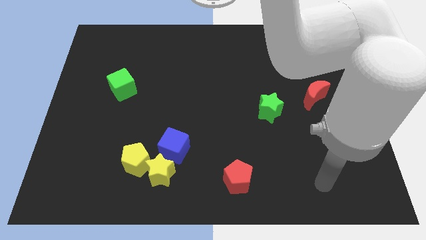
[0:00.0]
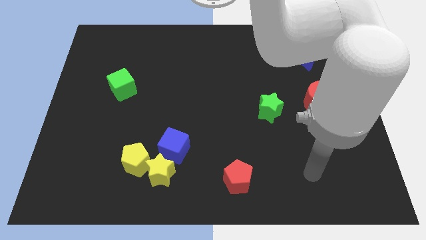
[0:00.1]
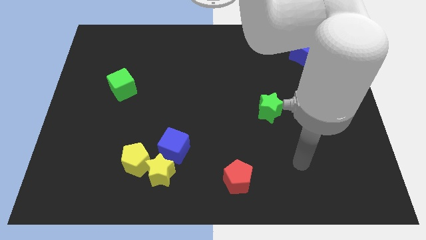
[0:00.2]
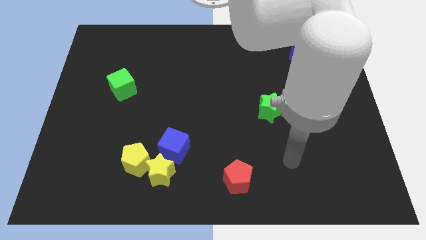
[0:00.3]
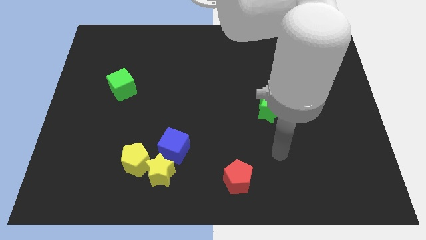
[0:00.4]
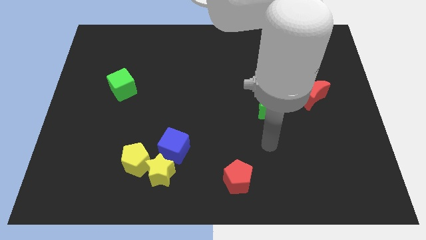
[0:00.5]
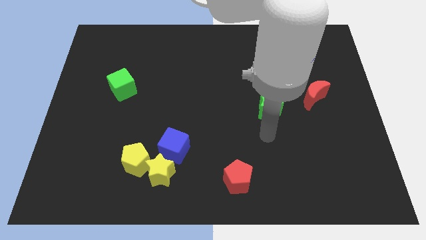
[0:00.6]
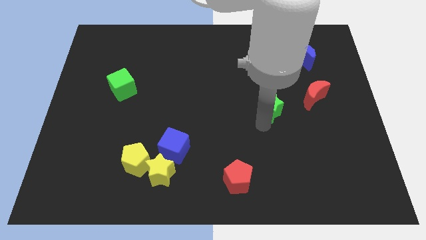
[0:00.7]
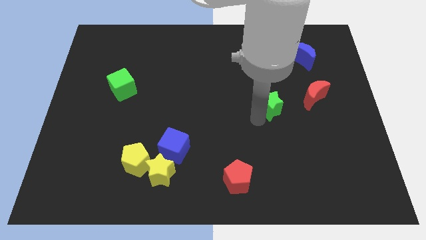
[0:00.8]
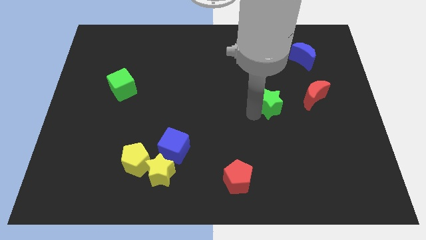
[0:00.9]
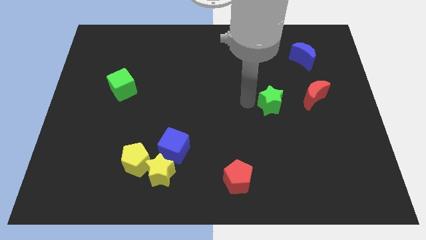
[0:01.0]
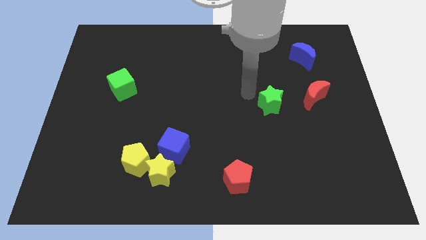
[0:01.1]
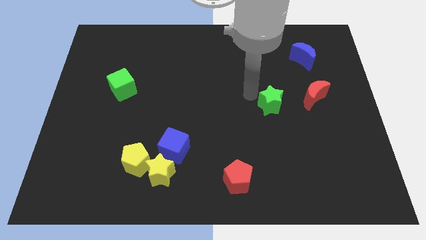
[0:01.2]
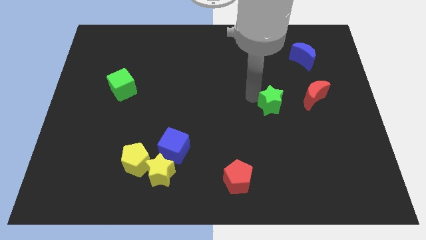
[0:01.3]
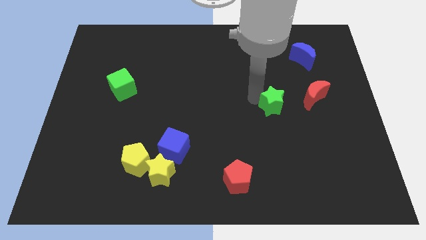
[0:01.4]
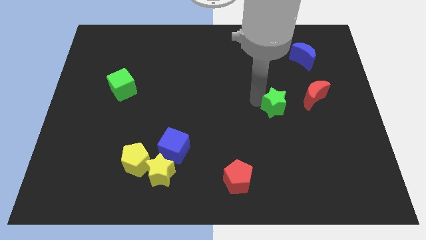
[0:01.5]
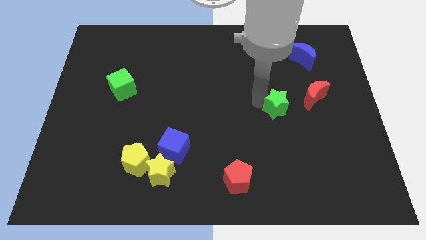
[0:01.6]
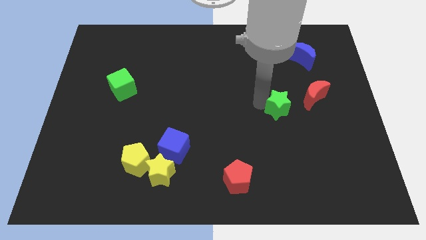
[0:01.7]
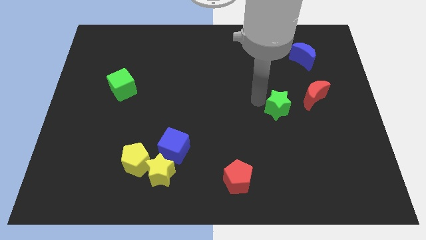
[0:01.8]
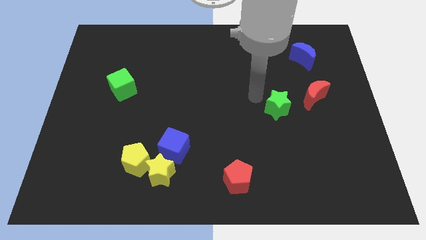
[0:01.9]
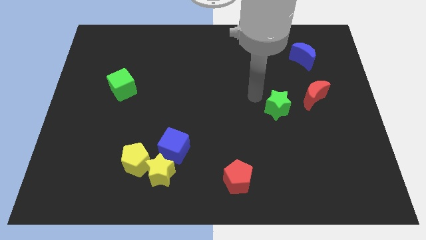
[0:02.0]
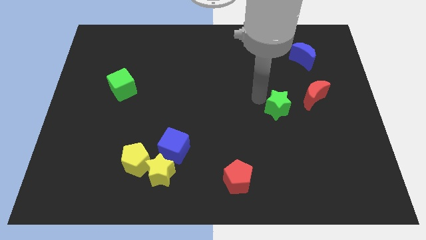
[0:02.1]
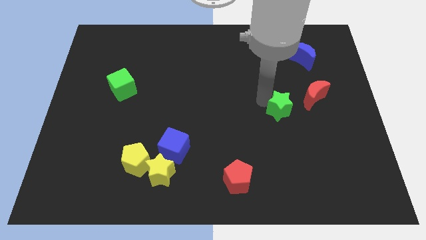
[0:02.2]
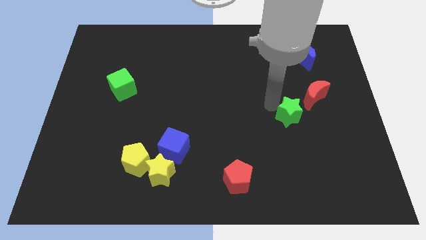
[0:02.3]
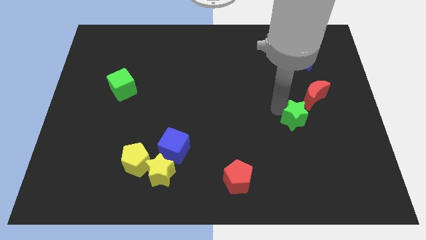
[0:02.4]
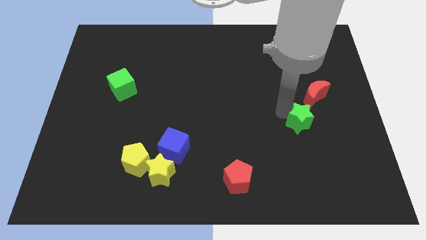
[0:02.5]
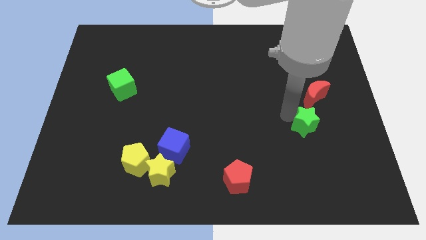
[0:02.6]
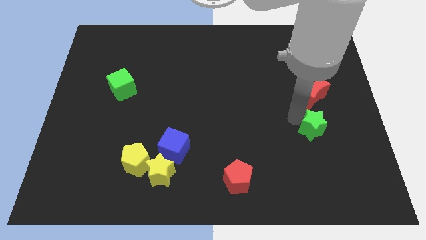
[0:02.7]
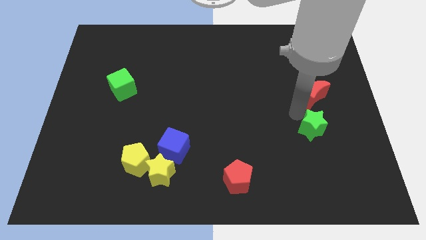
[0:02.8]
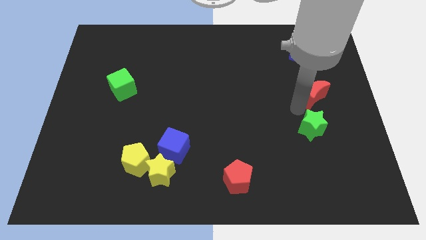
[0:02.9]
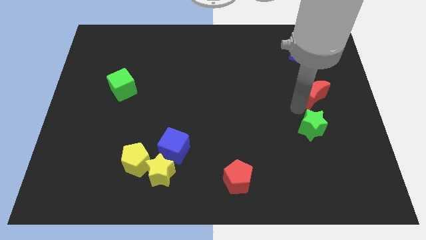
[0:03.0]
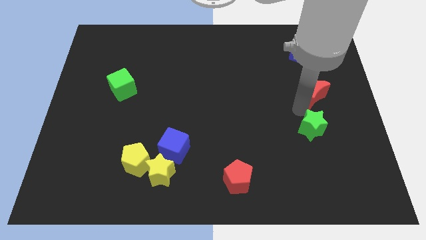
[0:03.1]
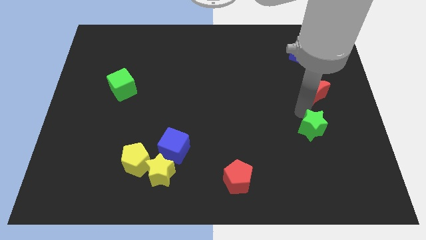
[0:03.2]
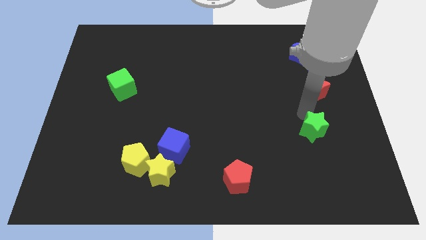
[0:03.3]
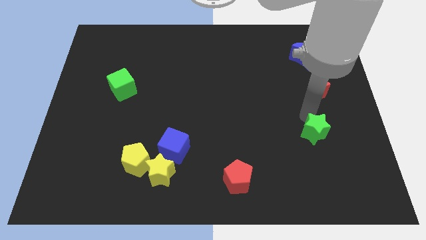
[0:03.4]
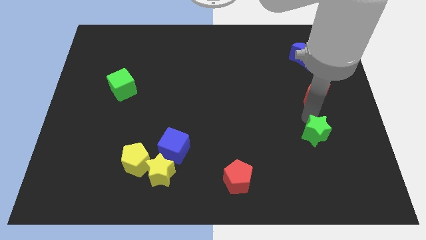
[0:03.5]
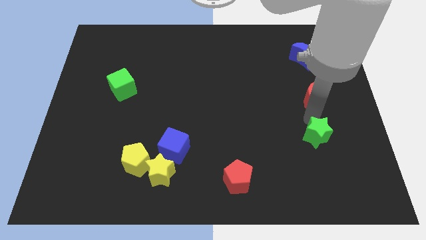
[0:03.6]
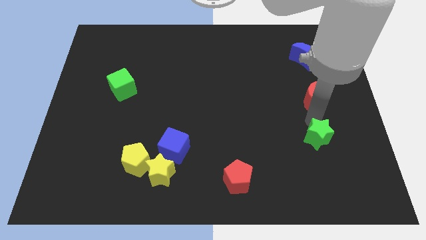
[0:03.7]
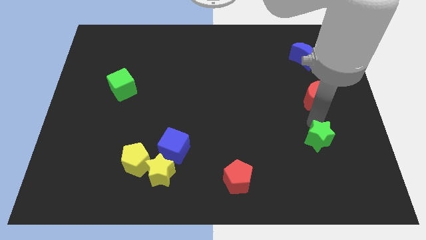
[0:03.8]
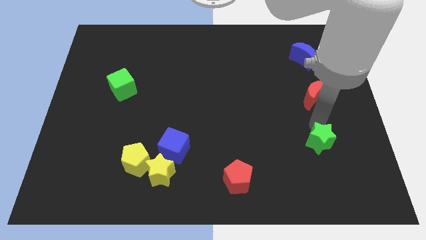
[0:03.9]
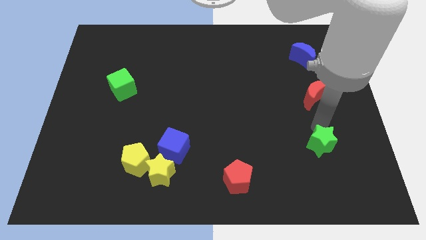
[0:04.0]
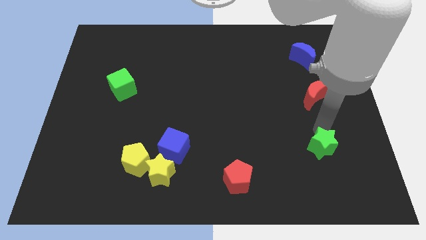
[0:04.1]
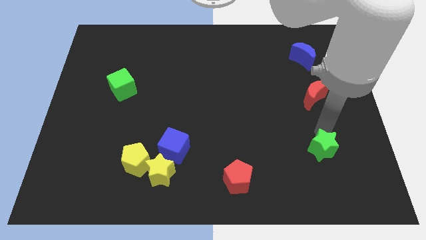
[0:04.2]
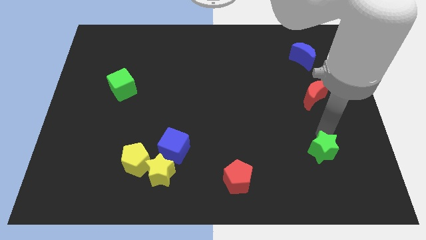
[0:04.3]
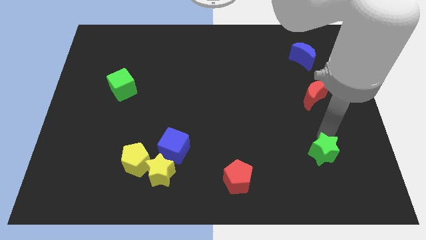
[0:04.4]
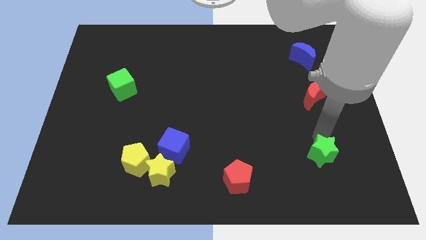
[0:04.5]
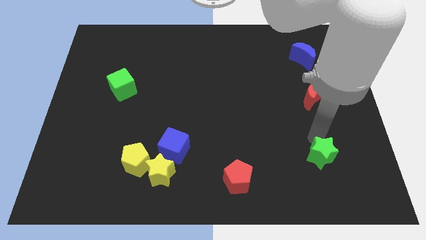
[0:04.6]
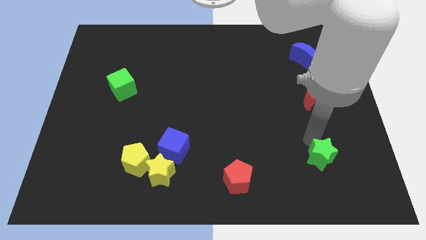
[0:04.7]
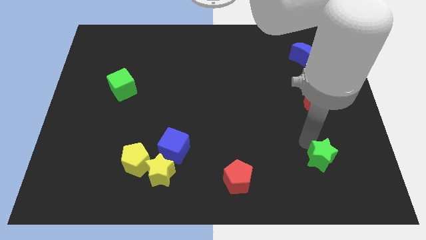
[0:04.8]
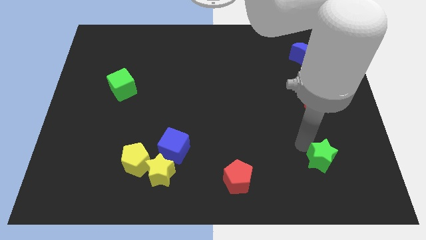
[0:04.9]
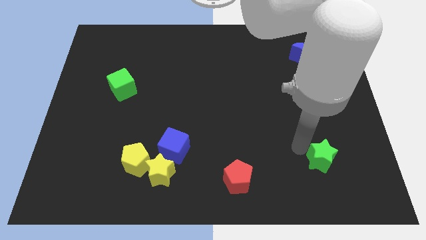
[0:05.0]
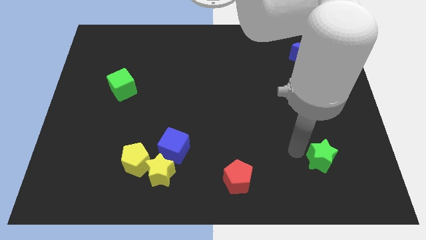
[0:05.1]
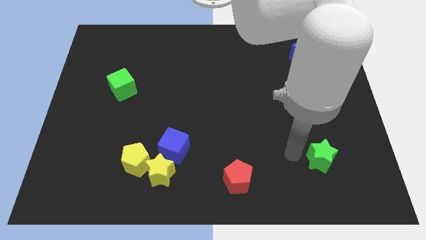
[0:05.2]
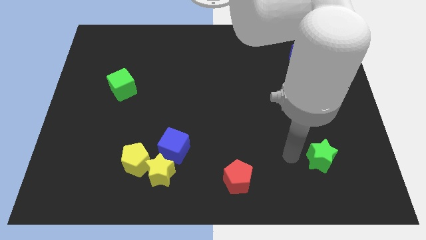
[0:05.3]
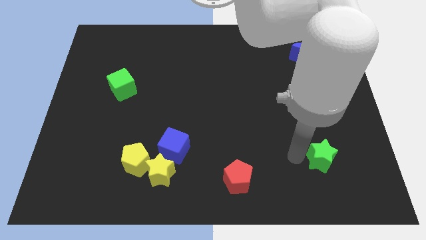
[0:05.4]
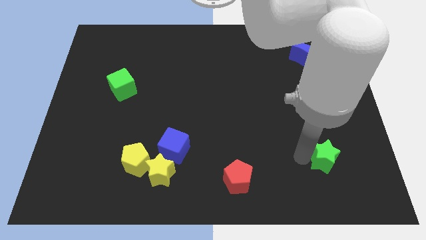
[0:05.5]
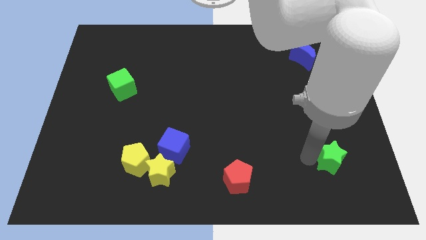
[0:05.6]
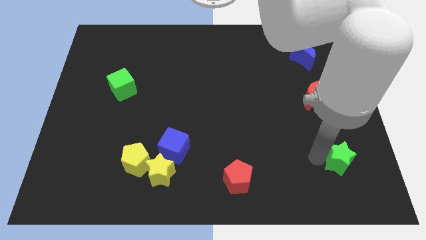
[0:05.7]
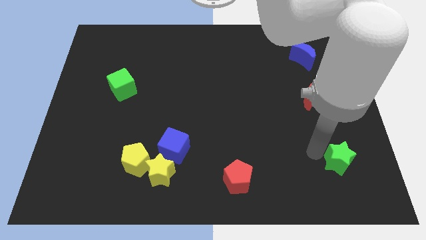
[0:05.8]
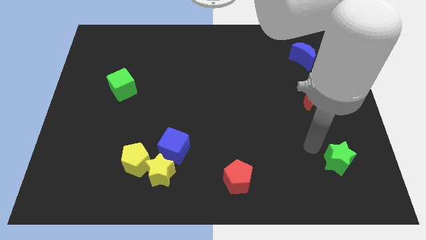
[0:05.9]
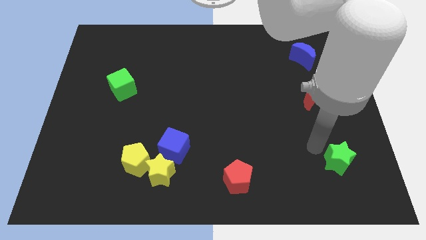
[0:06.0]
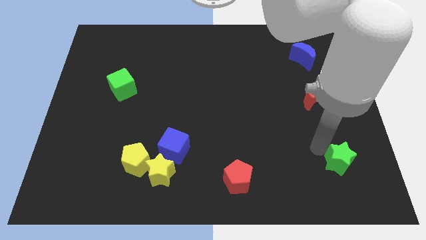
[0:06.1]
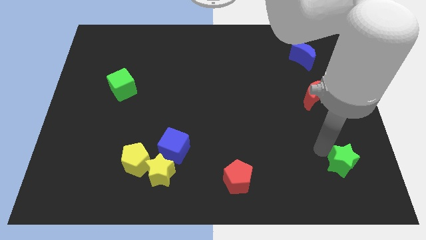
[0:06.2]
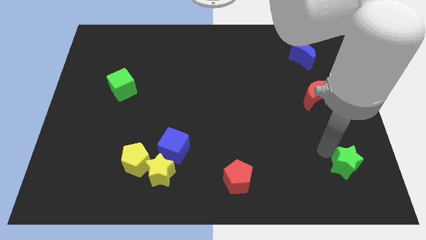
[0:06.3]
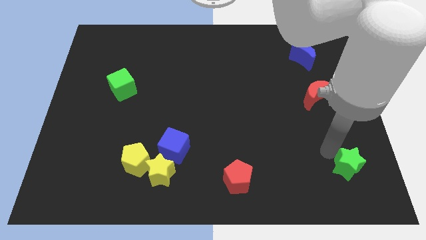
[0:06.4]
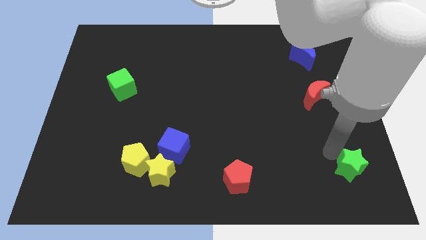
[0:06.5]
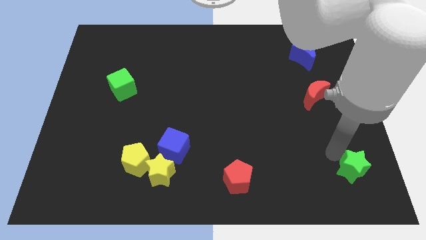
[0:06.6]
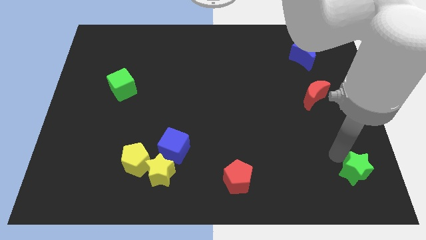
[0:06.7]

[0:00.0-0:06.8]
put the green star to the bottom right

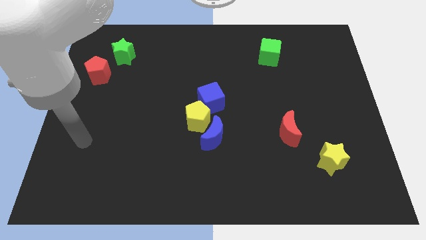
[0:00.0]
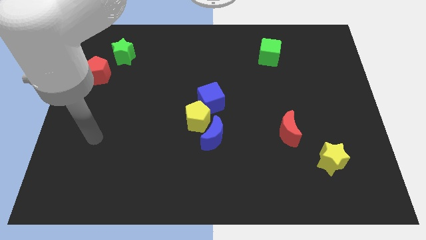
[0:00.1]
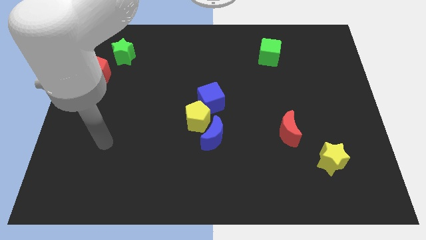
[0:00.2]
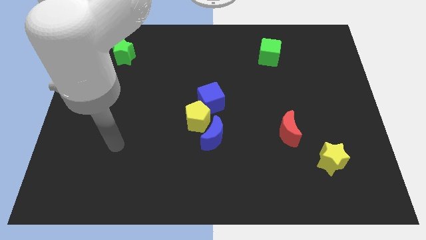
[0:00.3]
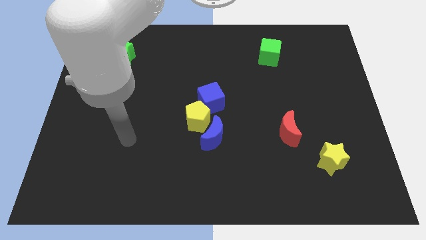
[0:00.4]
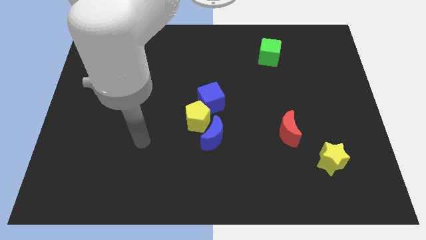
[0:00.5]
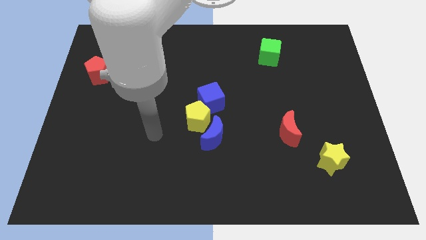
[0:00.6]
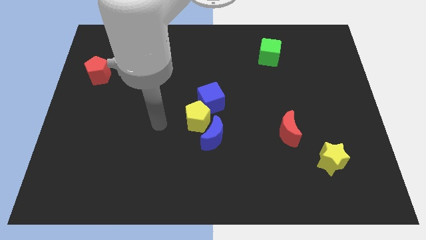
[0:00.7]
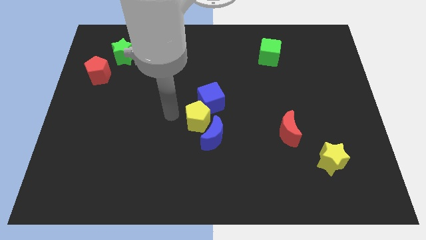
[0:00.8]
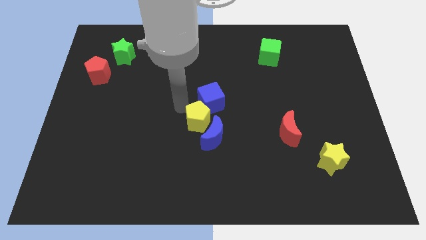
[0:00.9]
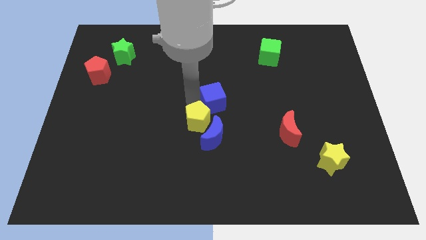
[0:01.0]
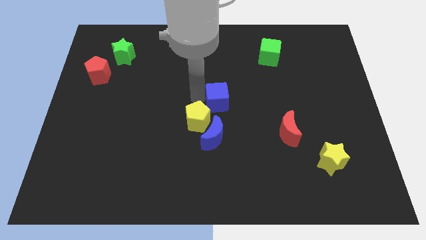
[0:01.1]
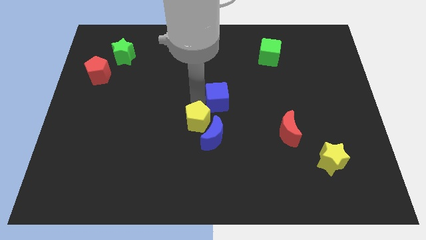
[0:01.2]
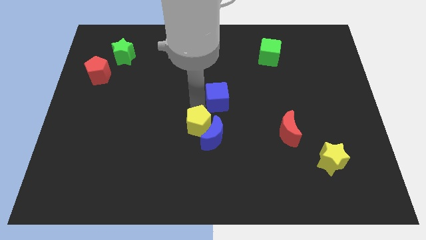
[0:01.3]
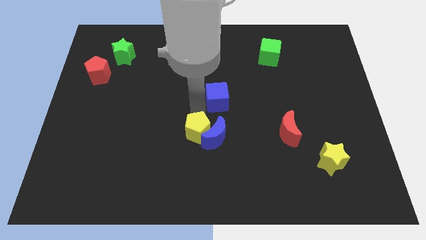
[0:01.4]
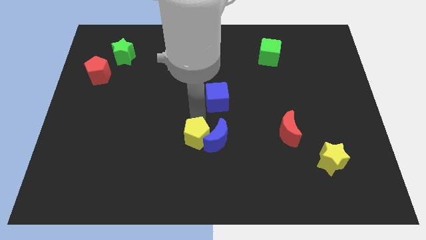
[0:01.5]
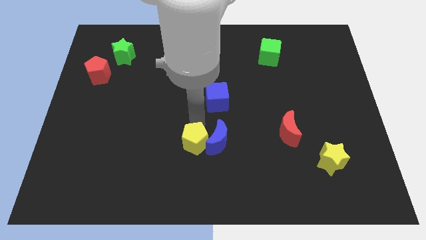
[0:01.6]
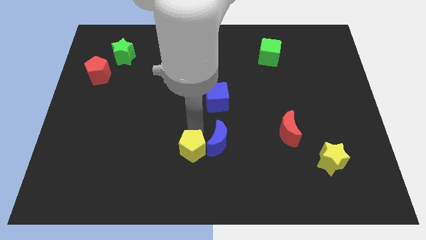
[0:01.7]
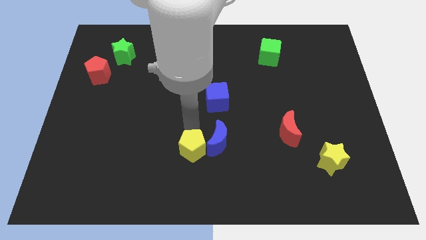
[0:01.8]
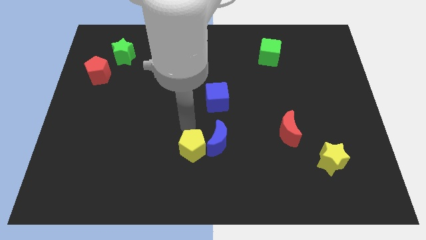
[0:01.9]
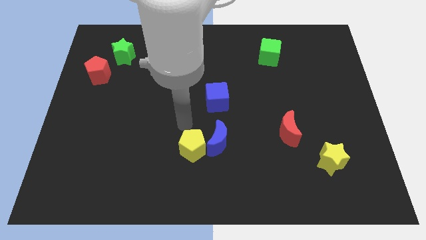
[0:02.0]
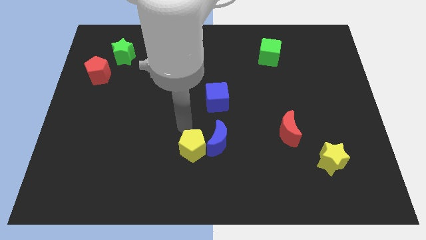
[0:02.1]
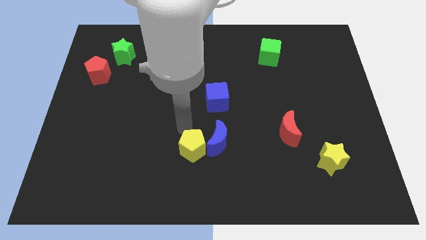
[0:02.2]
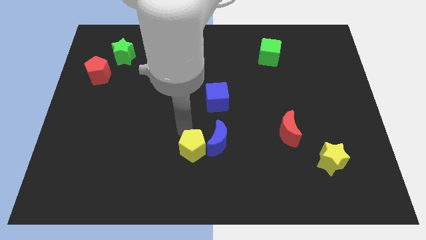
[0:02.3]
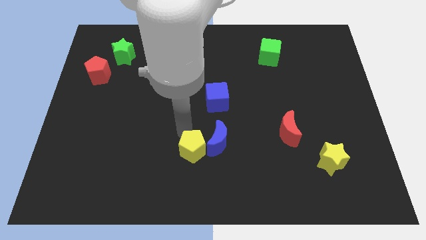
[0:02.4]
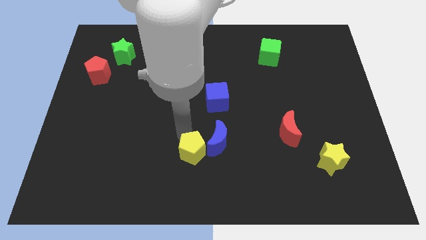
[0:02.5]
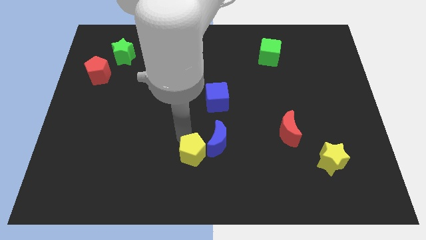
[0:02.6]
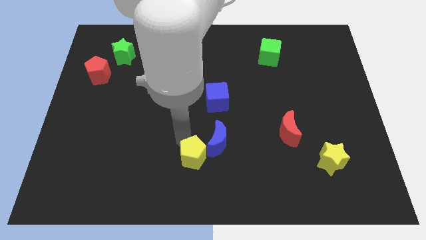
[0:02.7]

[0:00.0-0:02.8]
push the yellow pentagon to the bottom
